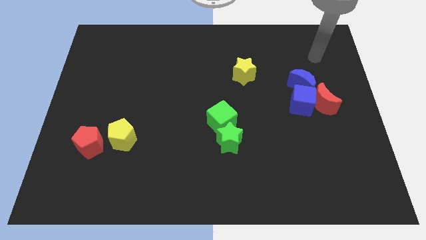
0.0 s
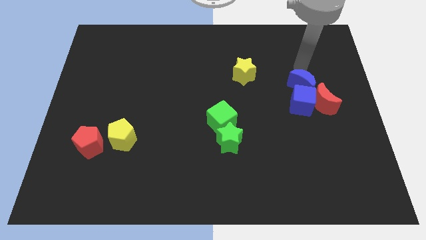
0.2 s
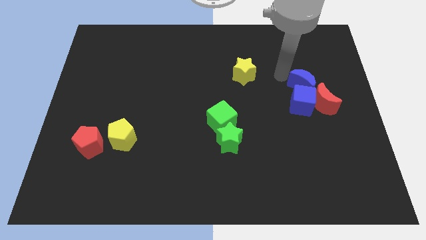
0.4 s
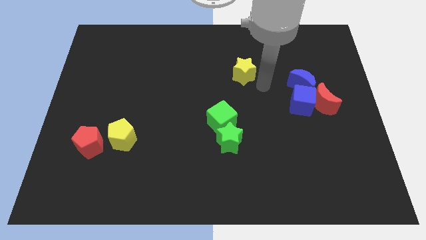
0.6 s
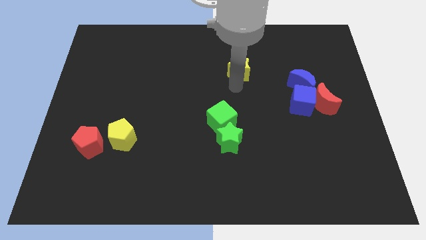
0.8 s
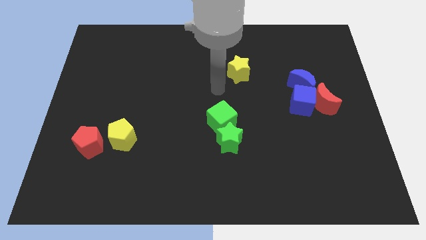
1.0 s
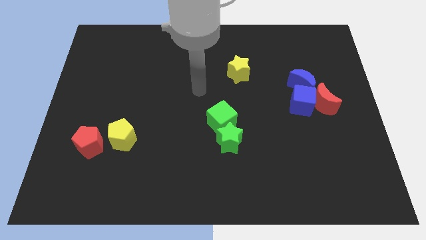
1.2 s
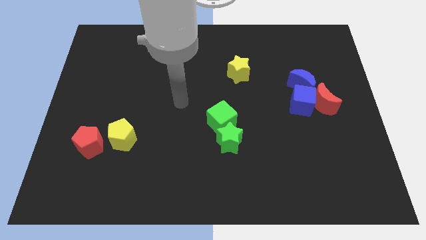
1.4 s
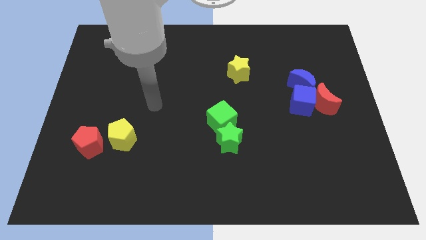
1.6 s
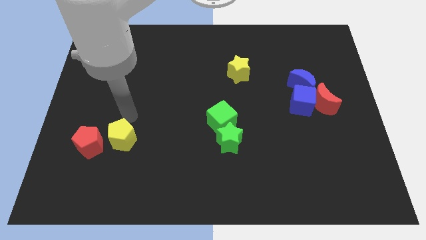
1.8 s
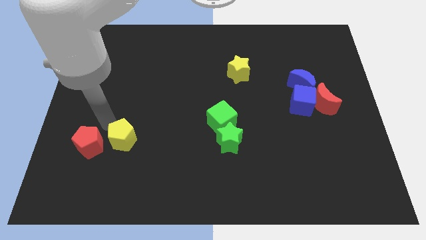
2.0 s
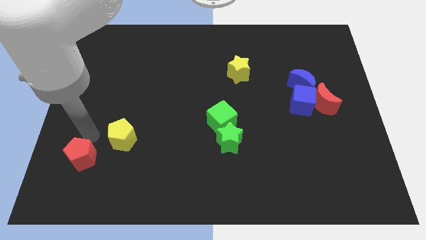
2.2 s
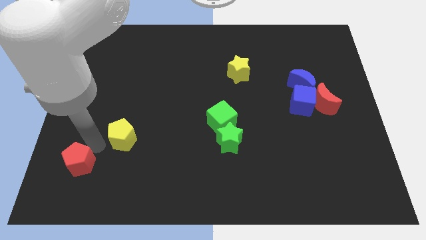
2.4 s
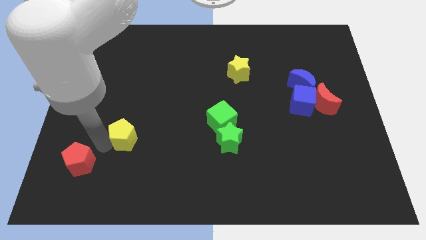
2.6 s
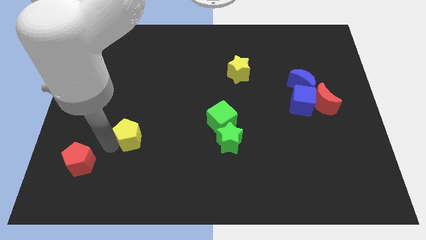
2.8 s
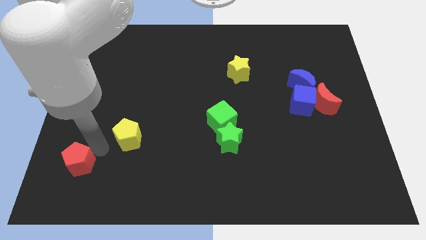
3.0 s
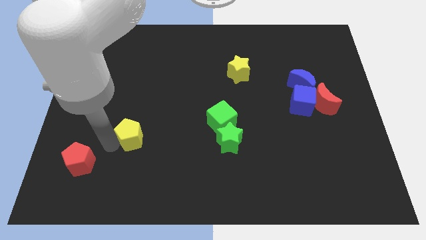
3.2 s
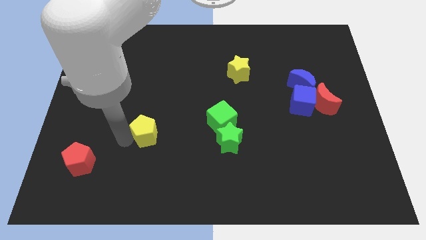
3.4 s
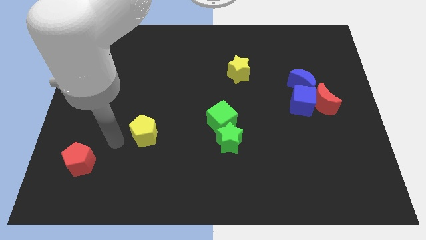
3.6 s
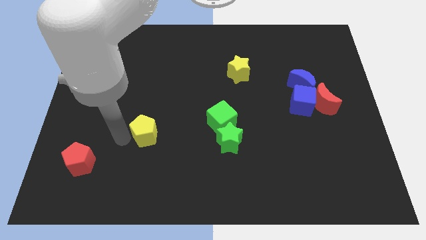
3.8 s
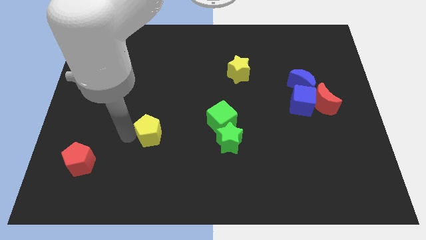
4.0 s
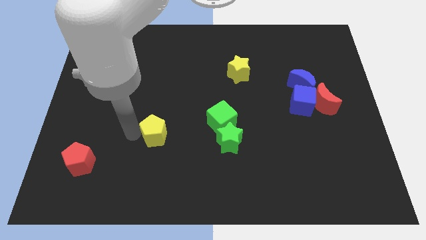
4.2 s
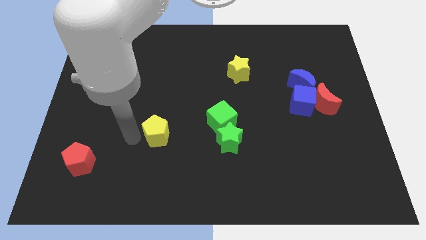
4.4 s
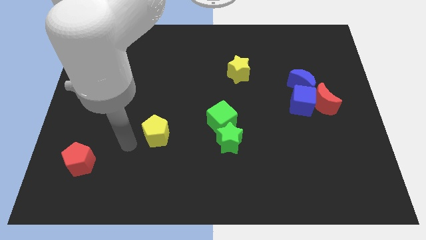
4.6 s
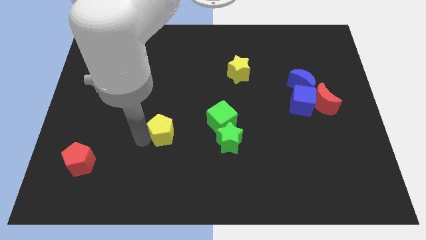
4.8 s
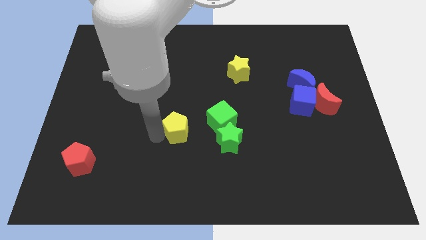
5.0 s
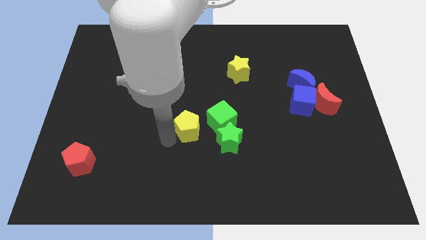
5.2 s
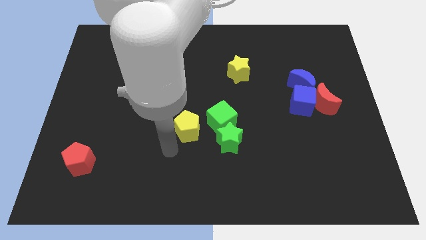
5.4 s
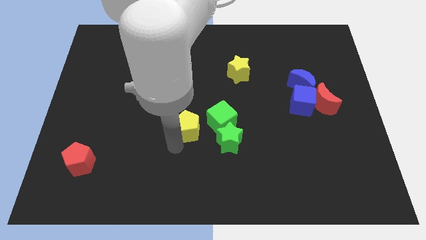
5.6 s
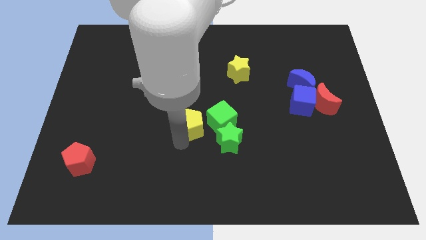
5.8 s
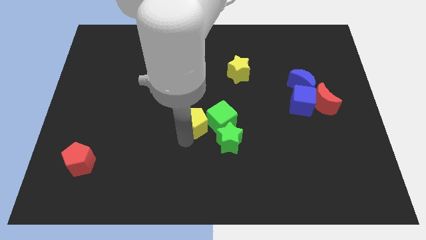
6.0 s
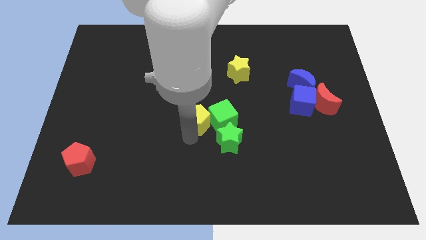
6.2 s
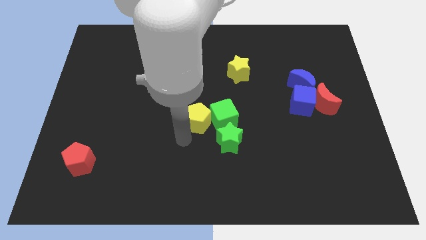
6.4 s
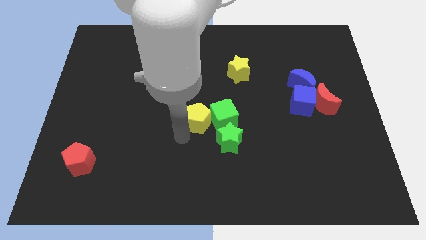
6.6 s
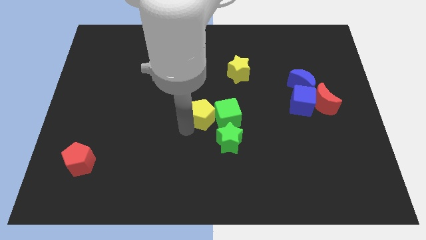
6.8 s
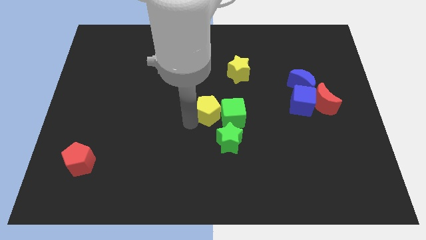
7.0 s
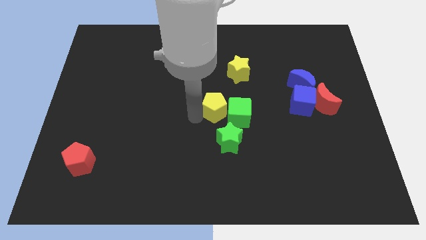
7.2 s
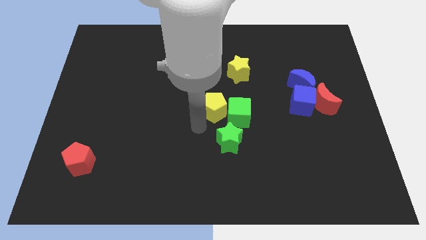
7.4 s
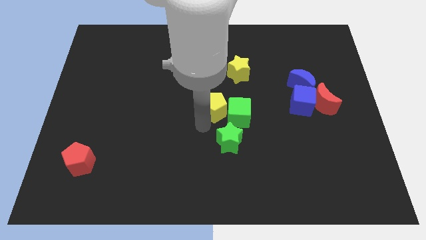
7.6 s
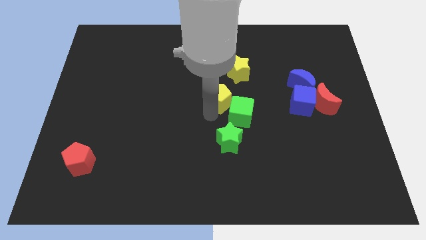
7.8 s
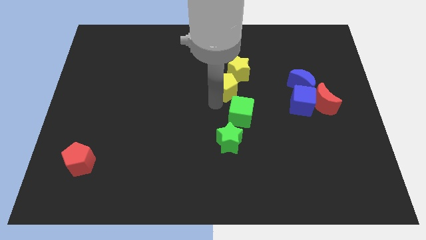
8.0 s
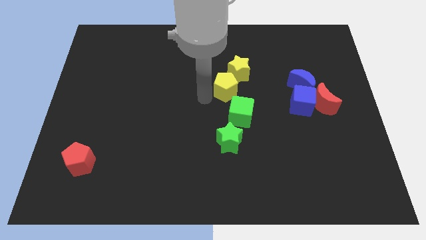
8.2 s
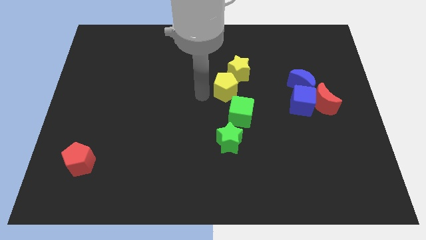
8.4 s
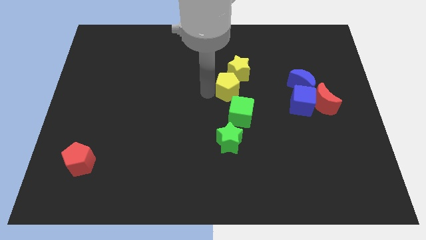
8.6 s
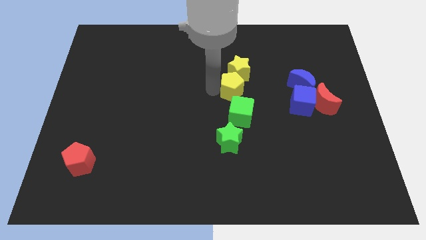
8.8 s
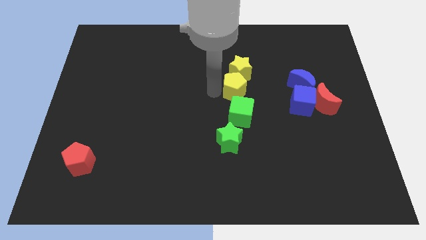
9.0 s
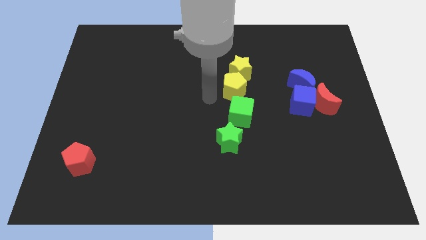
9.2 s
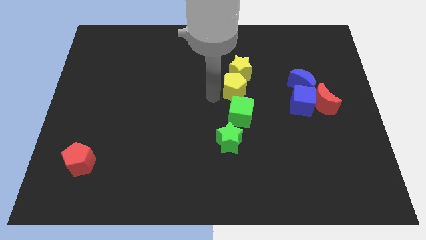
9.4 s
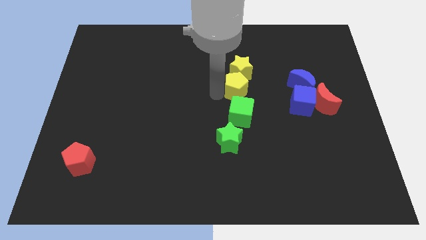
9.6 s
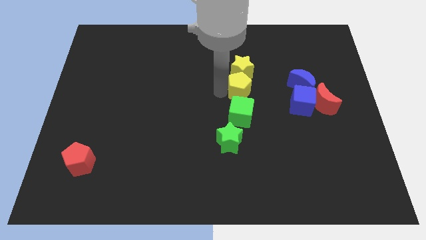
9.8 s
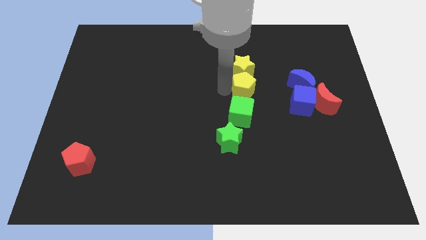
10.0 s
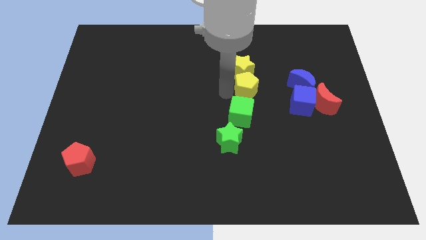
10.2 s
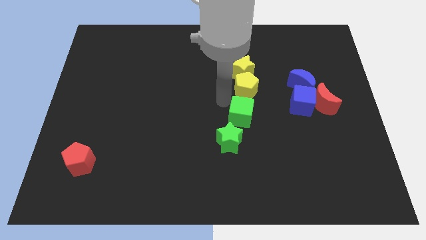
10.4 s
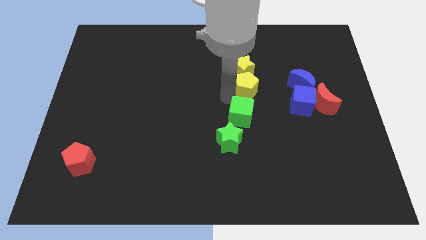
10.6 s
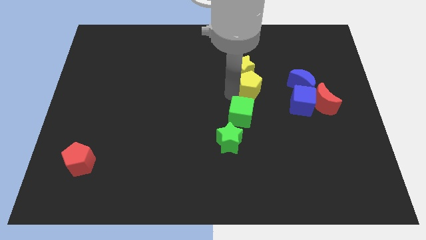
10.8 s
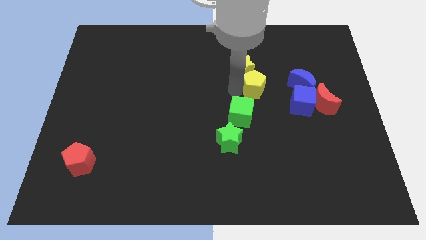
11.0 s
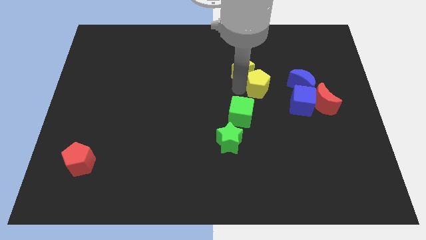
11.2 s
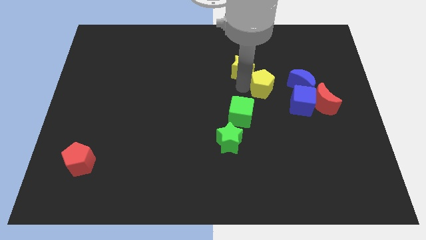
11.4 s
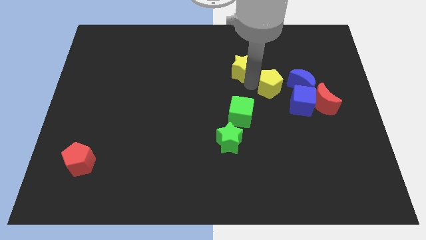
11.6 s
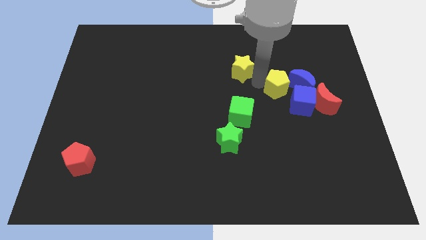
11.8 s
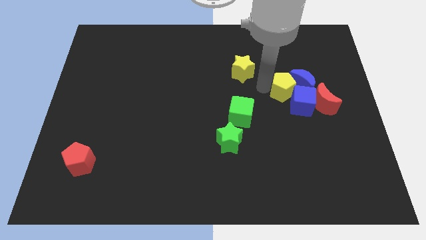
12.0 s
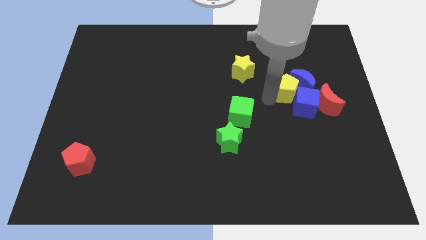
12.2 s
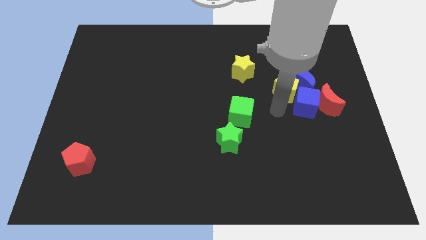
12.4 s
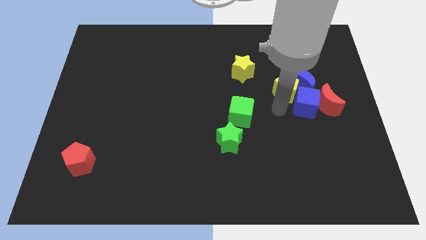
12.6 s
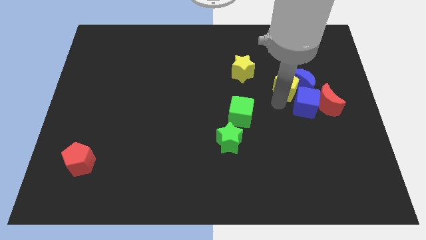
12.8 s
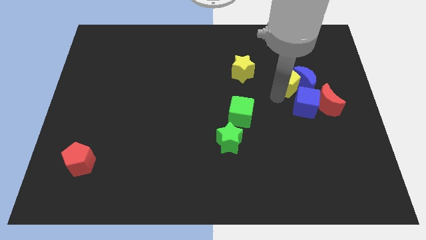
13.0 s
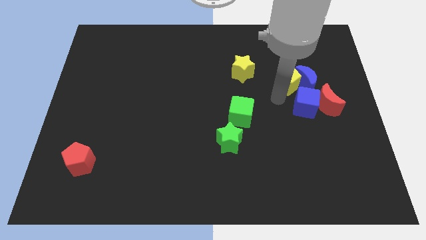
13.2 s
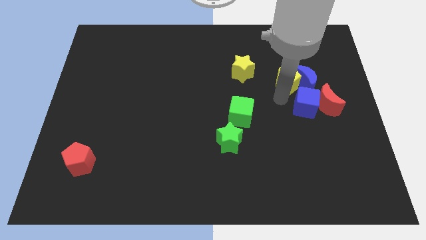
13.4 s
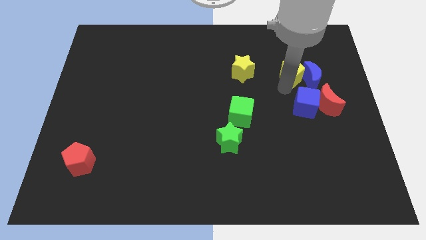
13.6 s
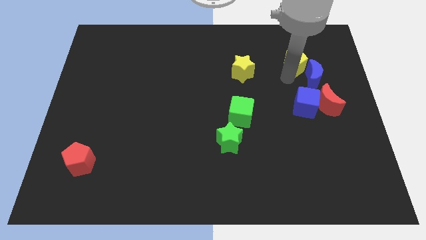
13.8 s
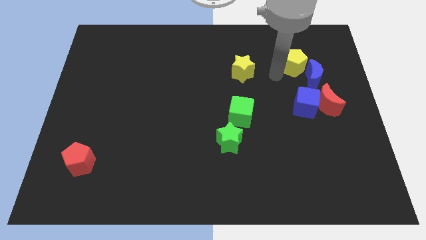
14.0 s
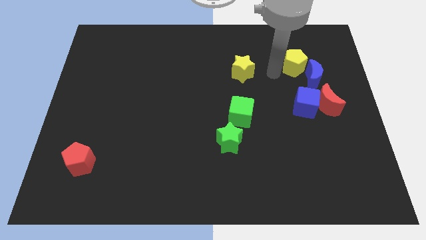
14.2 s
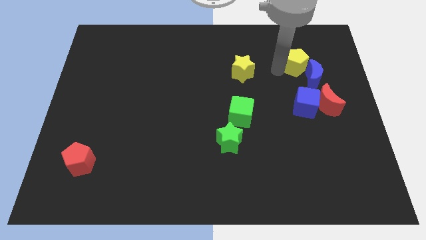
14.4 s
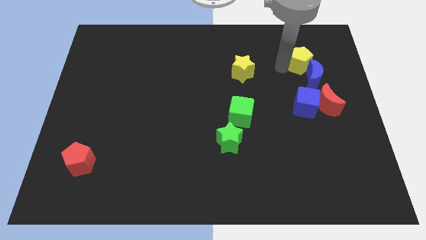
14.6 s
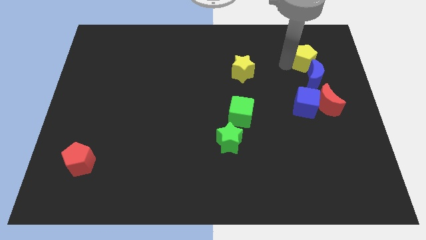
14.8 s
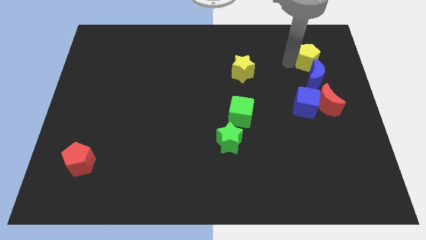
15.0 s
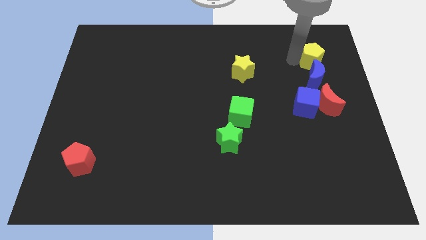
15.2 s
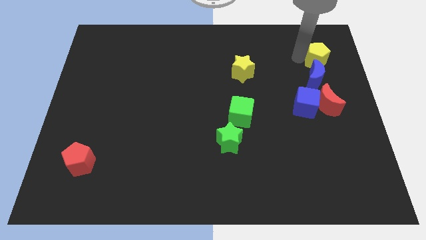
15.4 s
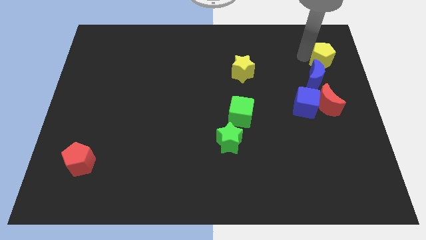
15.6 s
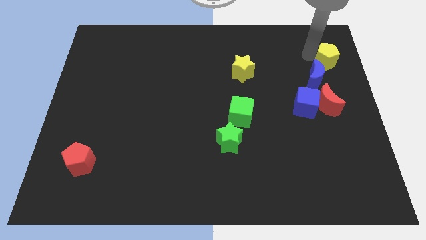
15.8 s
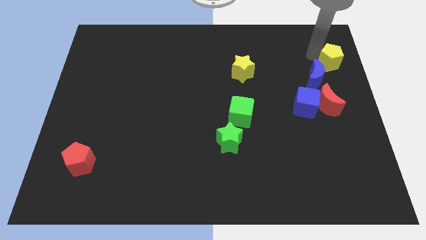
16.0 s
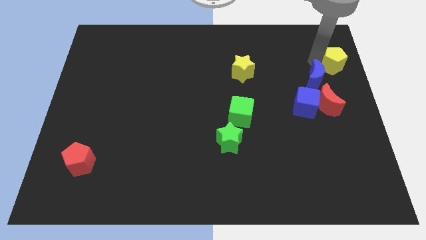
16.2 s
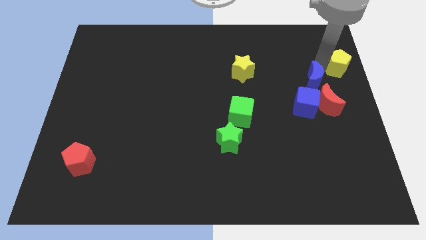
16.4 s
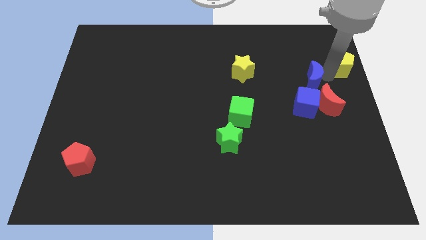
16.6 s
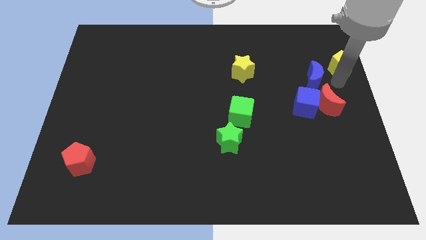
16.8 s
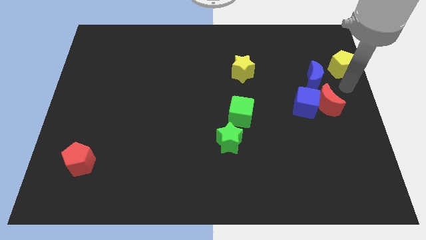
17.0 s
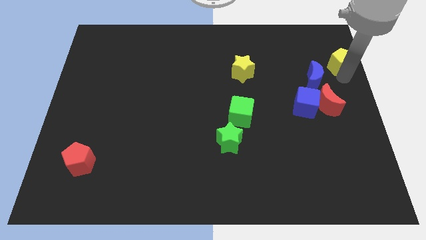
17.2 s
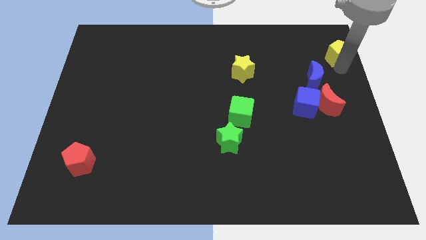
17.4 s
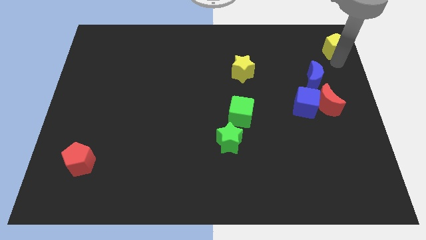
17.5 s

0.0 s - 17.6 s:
put the yellow pentagon to the top right of the board
